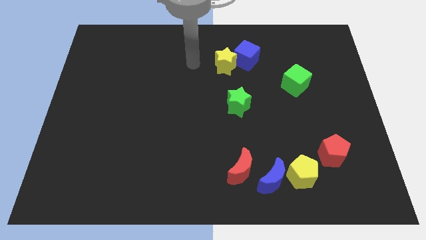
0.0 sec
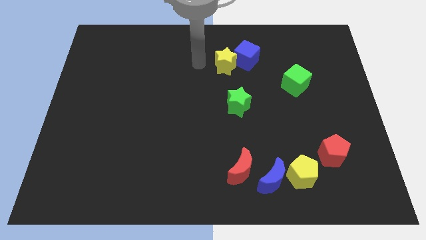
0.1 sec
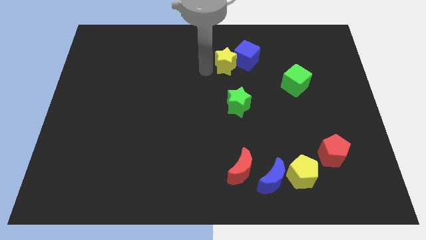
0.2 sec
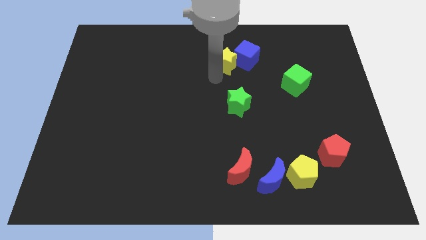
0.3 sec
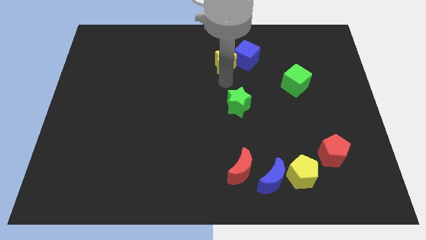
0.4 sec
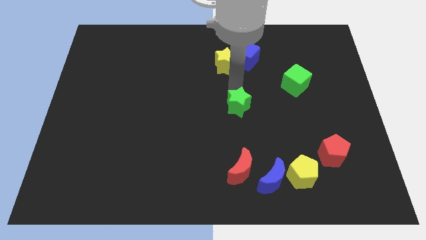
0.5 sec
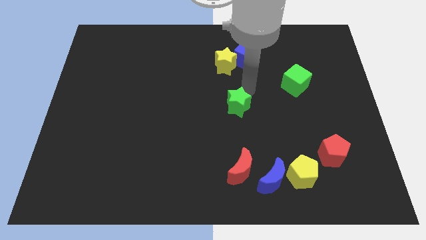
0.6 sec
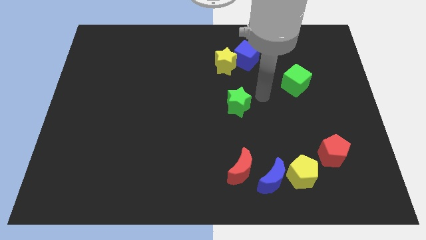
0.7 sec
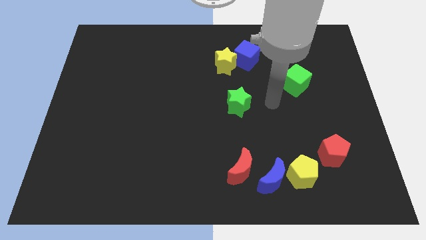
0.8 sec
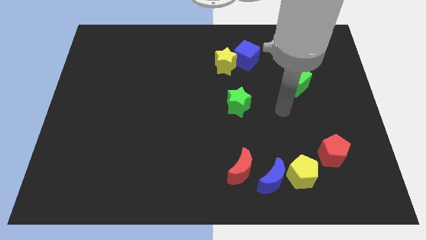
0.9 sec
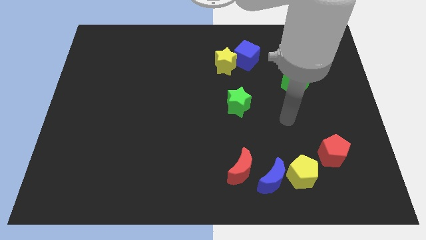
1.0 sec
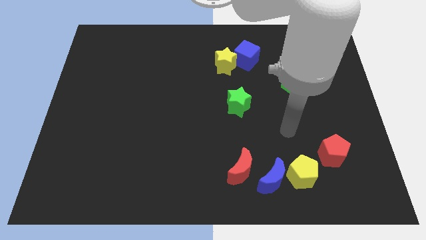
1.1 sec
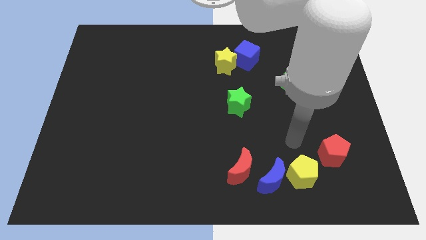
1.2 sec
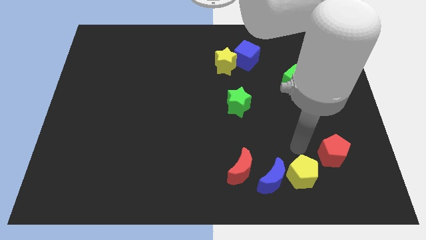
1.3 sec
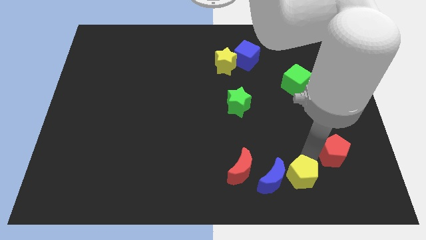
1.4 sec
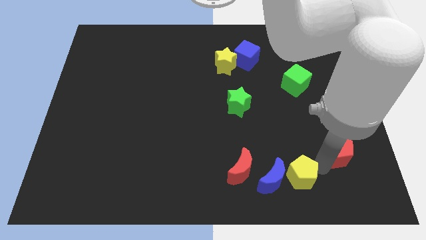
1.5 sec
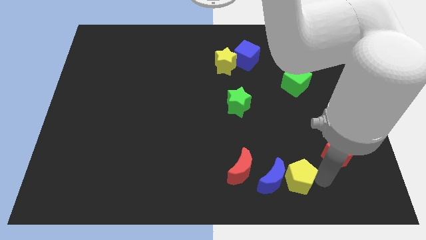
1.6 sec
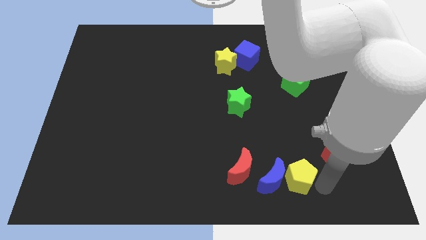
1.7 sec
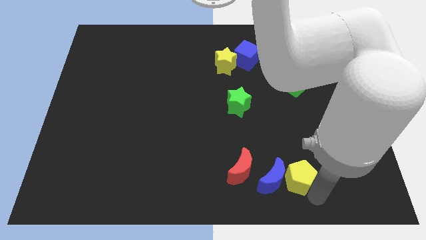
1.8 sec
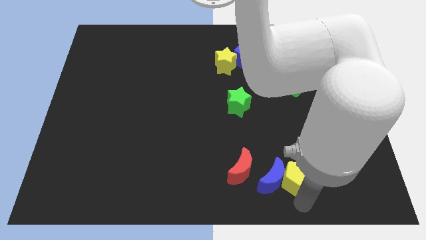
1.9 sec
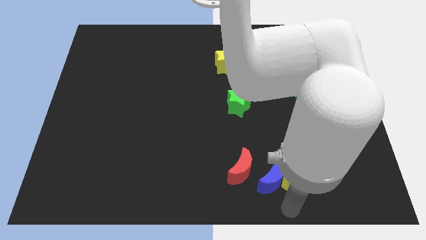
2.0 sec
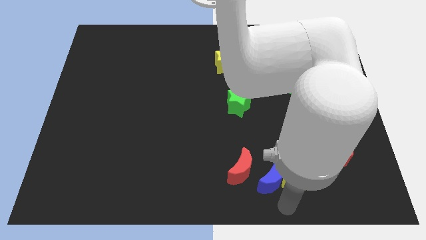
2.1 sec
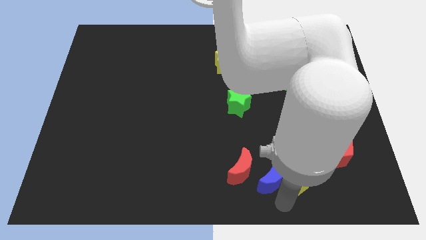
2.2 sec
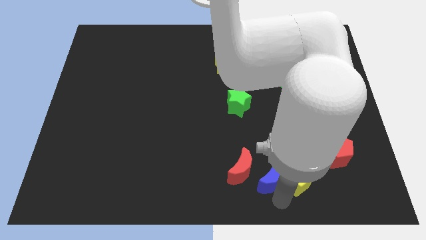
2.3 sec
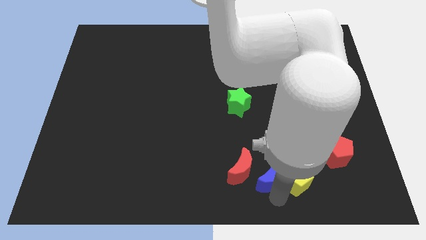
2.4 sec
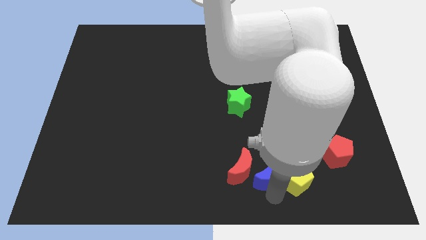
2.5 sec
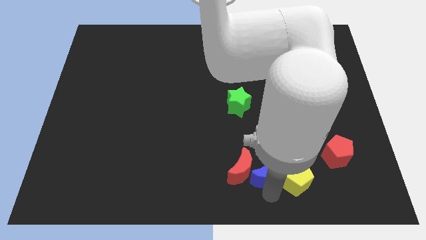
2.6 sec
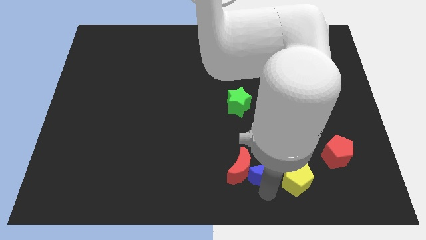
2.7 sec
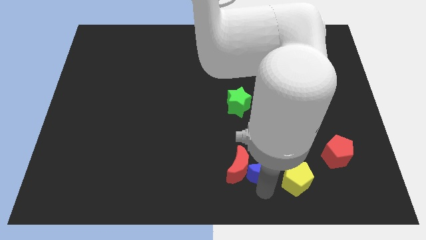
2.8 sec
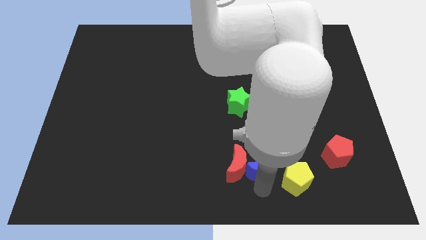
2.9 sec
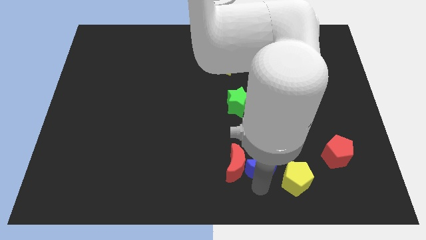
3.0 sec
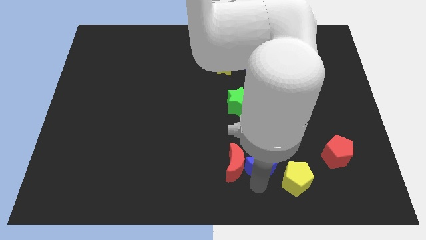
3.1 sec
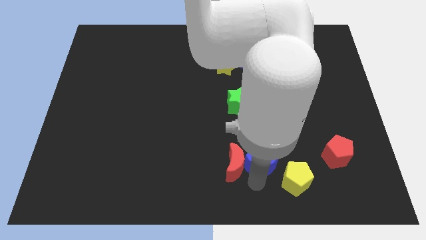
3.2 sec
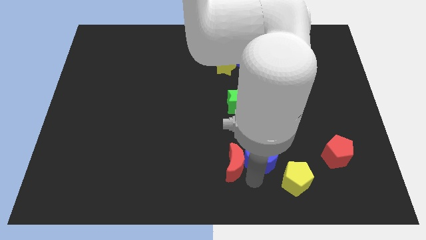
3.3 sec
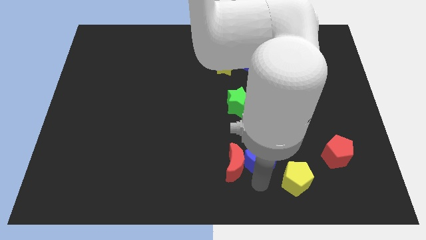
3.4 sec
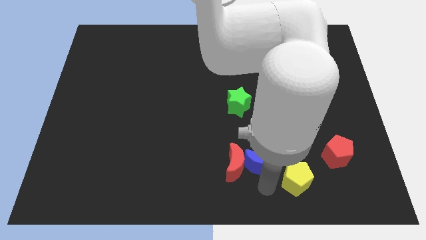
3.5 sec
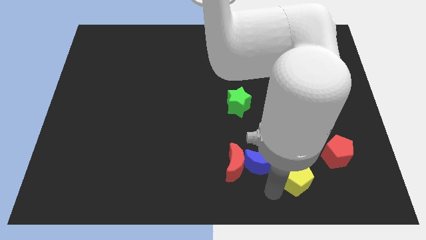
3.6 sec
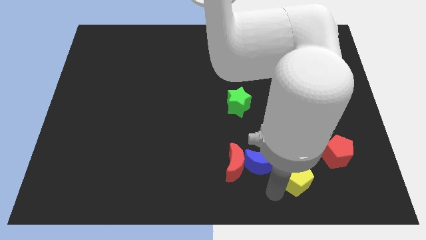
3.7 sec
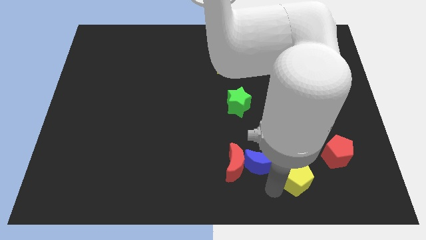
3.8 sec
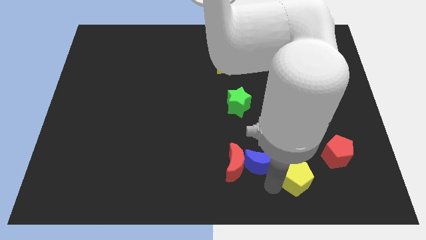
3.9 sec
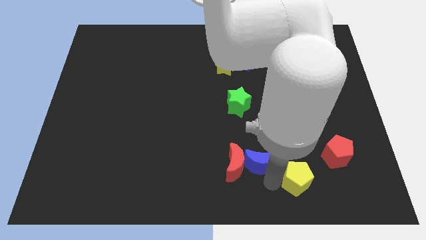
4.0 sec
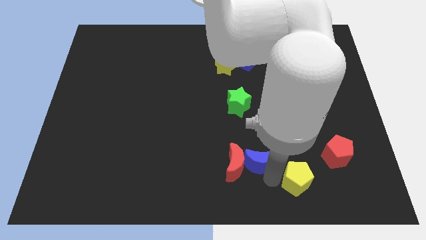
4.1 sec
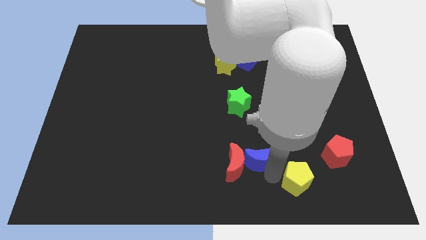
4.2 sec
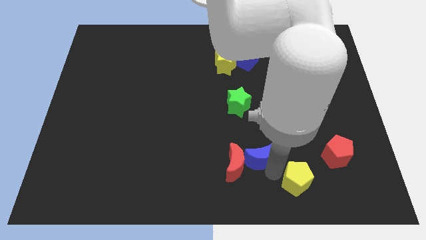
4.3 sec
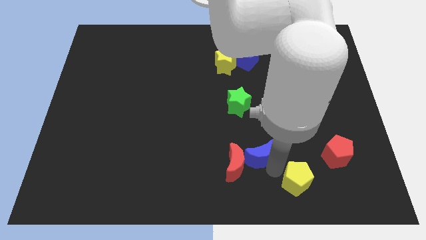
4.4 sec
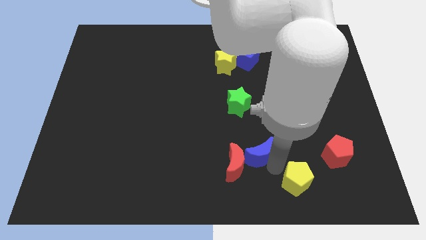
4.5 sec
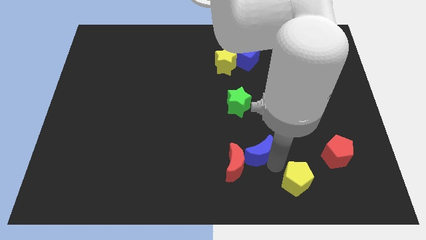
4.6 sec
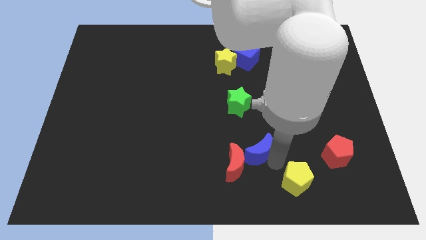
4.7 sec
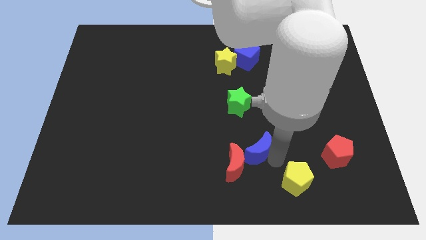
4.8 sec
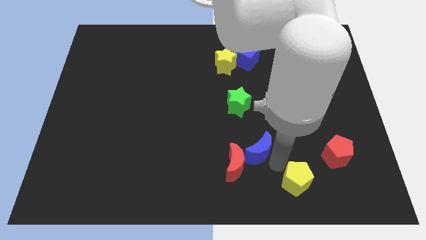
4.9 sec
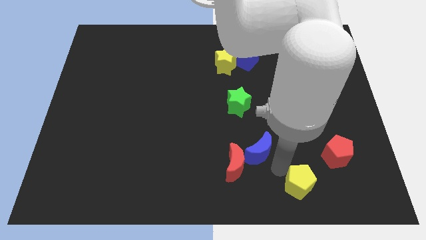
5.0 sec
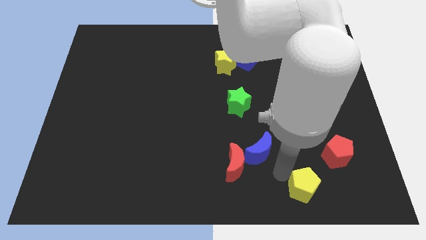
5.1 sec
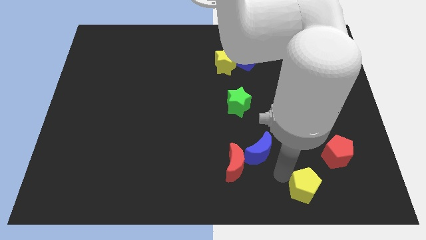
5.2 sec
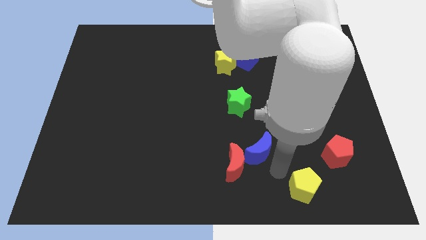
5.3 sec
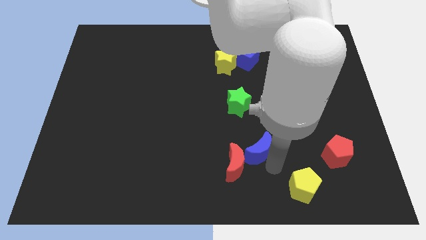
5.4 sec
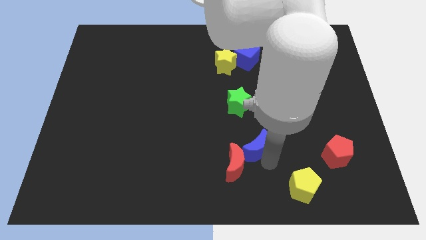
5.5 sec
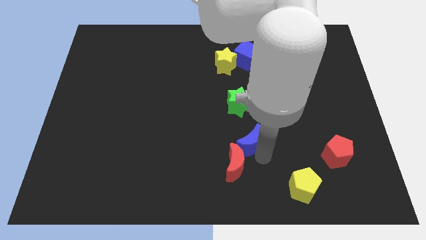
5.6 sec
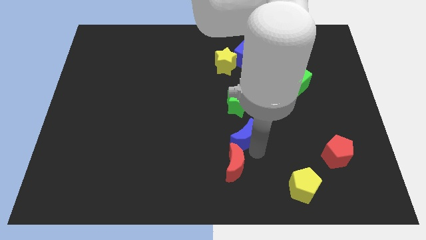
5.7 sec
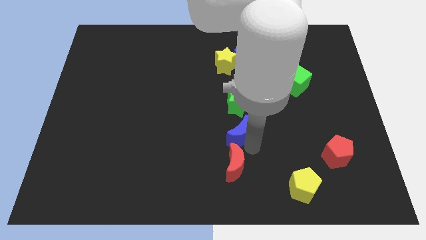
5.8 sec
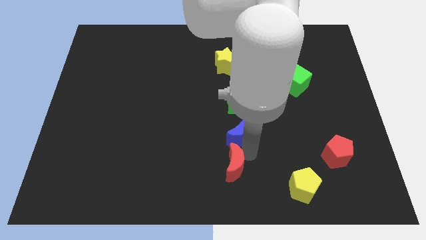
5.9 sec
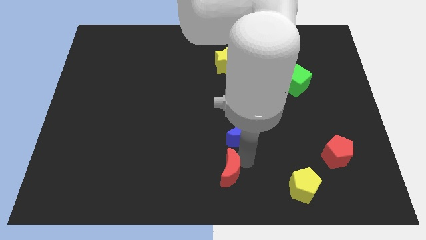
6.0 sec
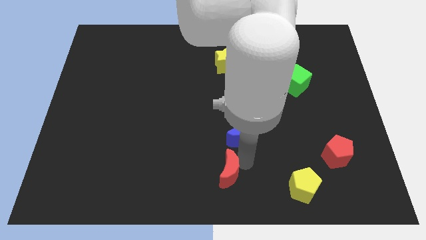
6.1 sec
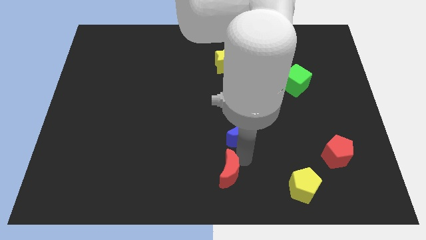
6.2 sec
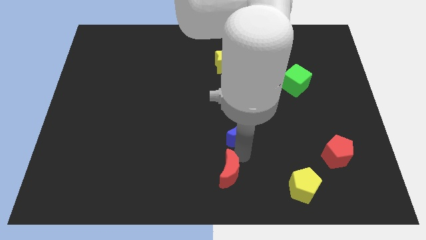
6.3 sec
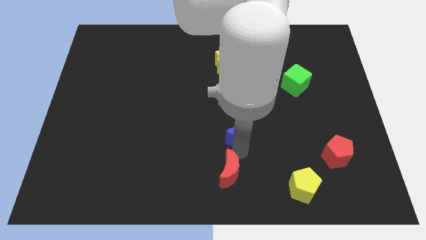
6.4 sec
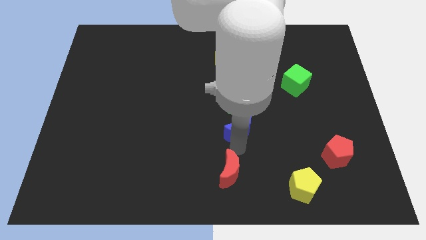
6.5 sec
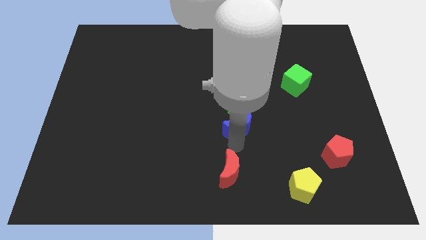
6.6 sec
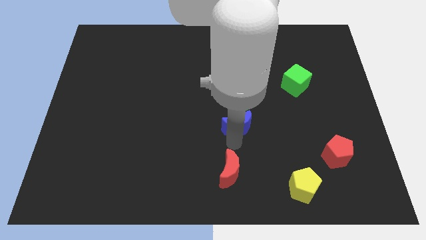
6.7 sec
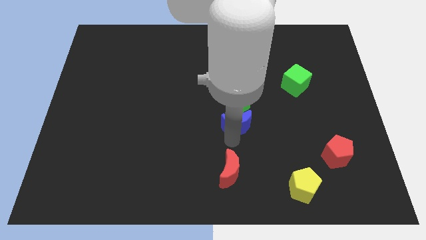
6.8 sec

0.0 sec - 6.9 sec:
push the blue moon close to the green star
